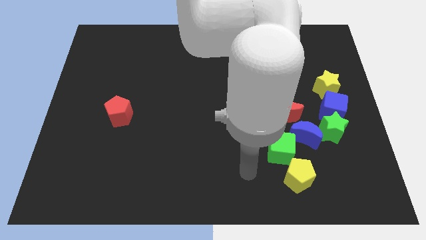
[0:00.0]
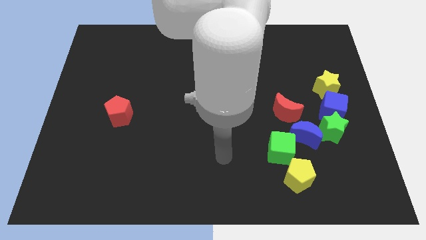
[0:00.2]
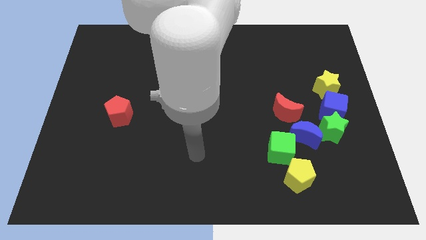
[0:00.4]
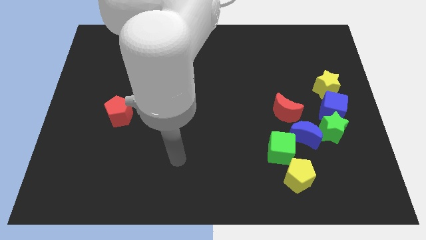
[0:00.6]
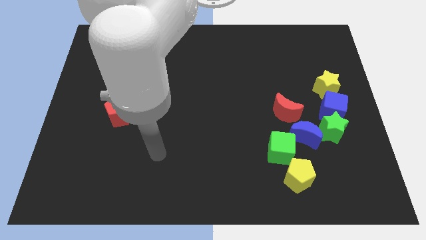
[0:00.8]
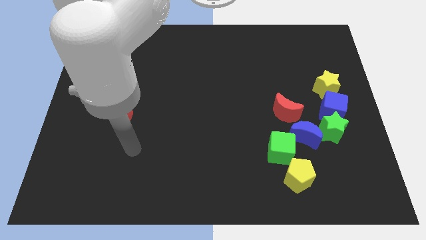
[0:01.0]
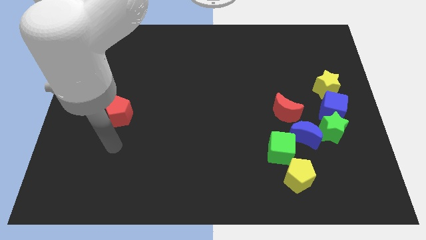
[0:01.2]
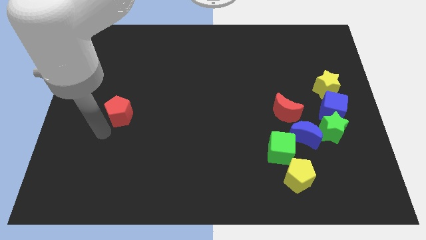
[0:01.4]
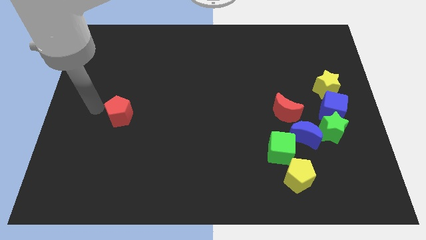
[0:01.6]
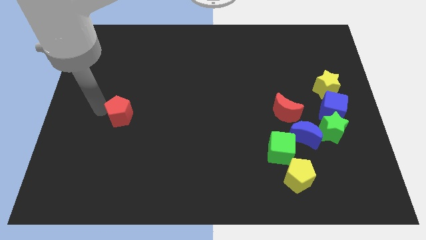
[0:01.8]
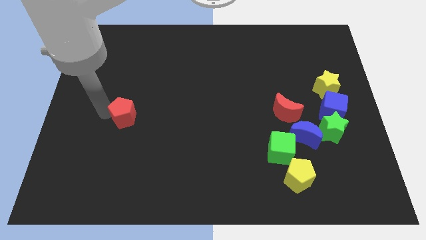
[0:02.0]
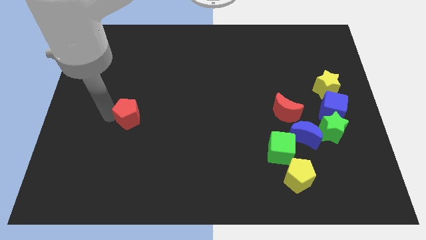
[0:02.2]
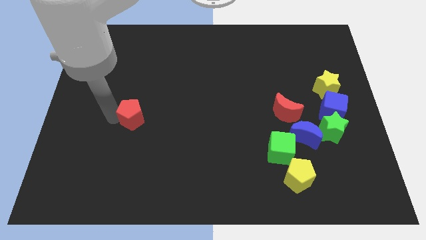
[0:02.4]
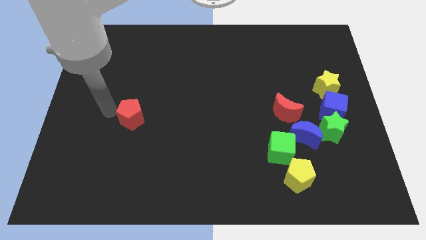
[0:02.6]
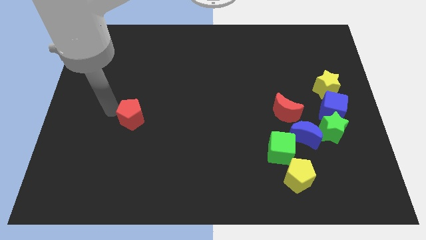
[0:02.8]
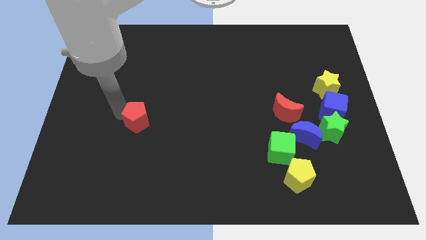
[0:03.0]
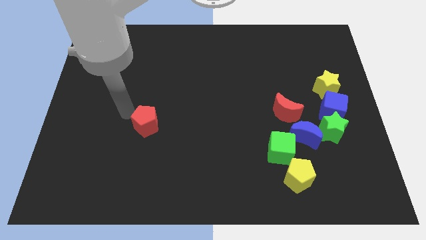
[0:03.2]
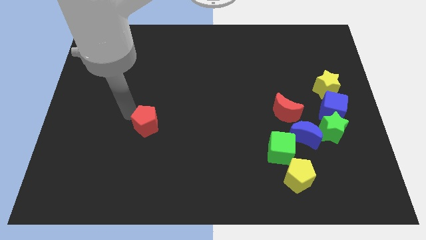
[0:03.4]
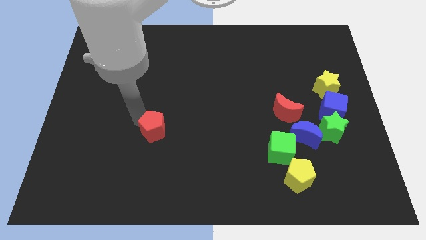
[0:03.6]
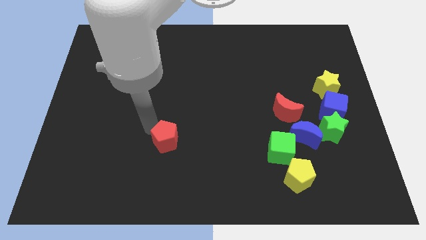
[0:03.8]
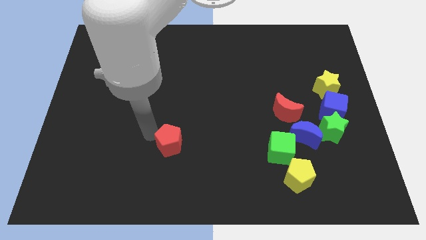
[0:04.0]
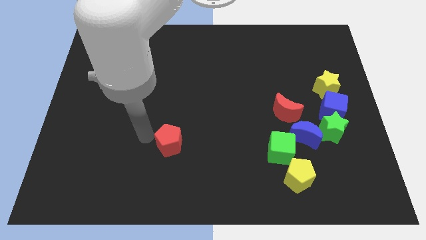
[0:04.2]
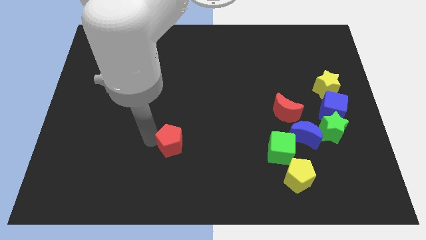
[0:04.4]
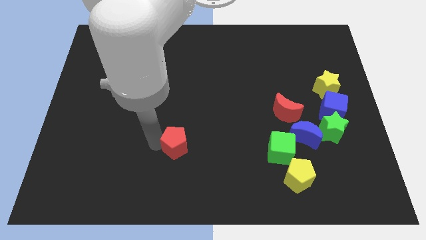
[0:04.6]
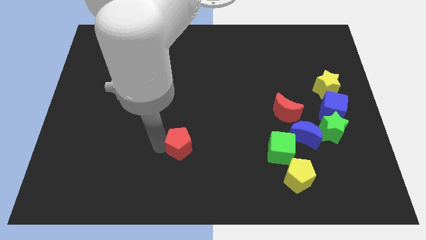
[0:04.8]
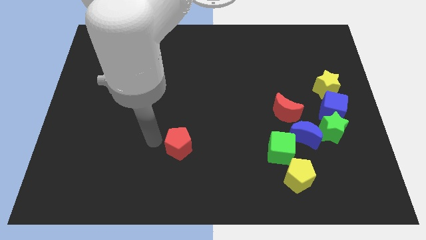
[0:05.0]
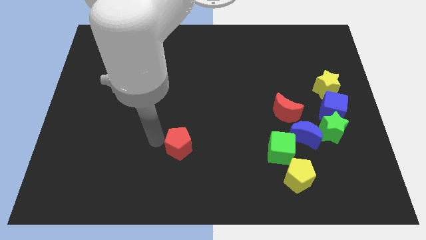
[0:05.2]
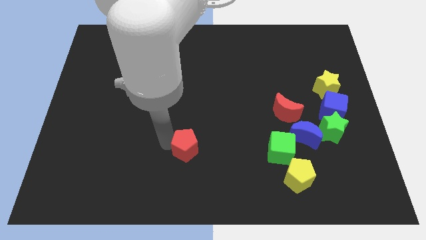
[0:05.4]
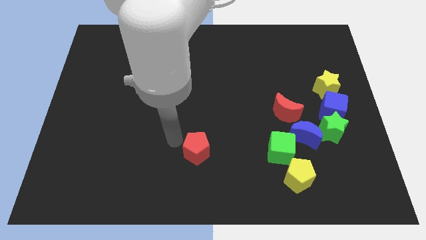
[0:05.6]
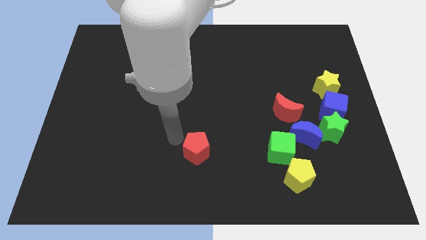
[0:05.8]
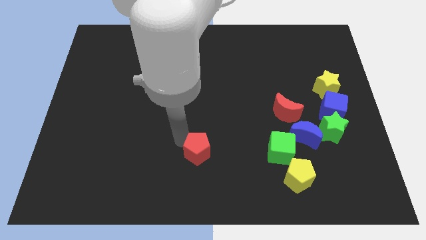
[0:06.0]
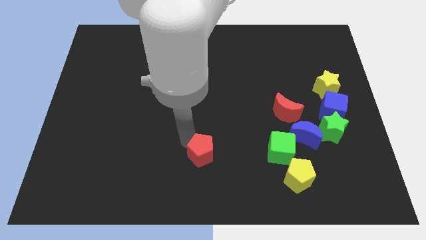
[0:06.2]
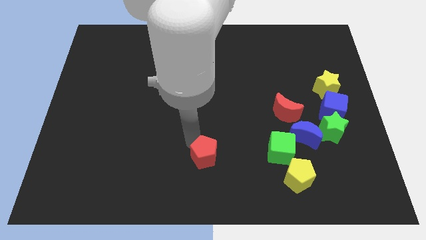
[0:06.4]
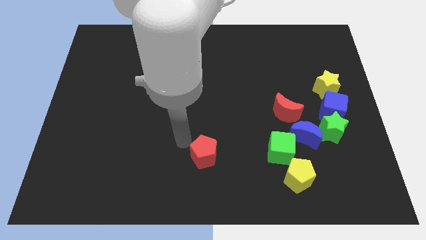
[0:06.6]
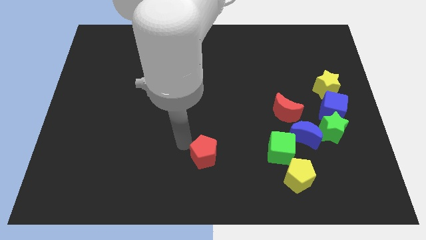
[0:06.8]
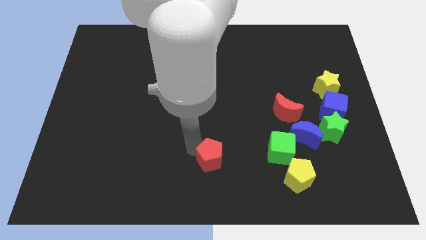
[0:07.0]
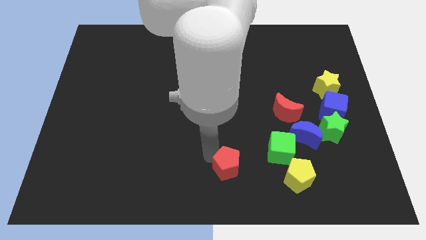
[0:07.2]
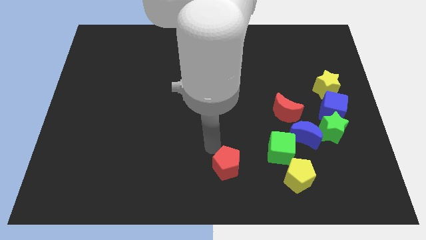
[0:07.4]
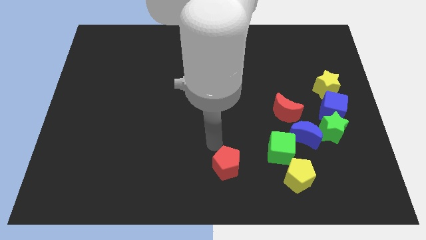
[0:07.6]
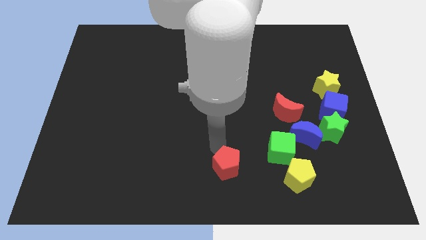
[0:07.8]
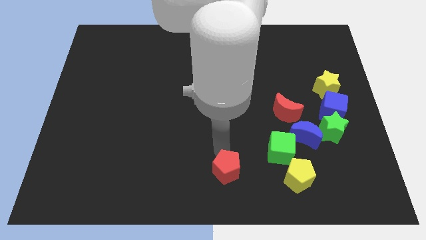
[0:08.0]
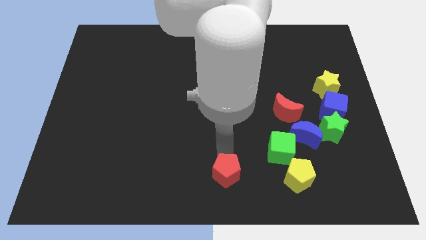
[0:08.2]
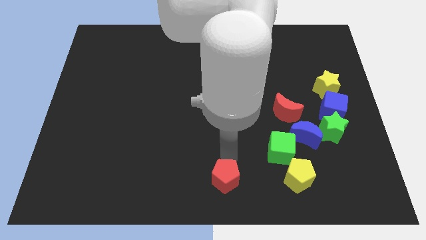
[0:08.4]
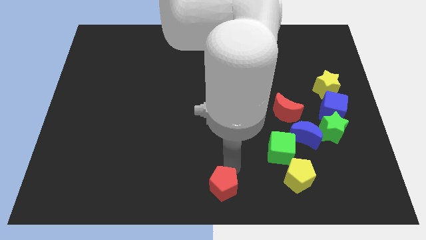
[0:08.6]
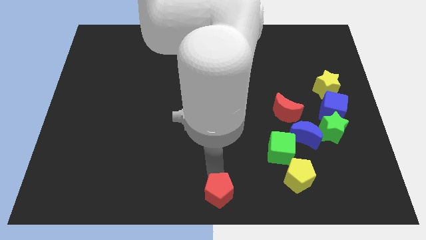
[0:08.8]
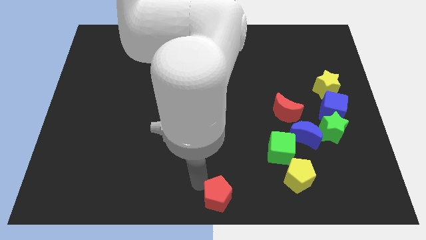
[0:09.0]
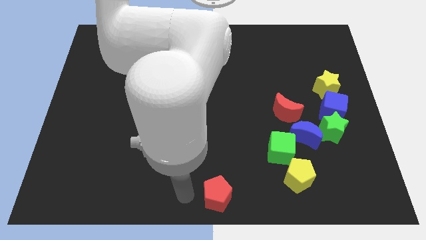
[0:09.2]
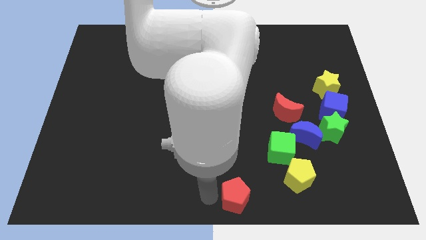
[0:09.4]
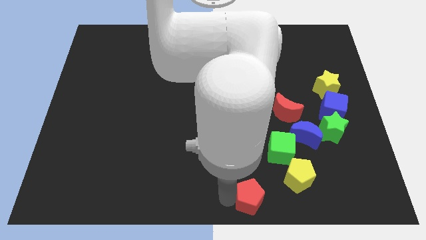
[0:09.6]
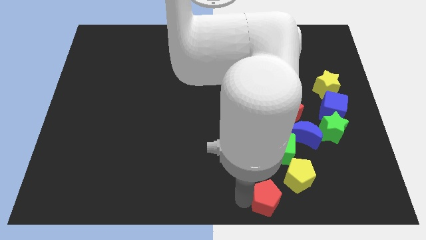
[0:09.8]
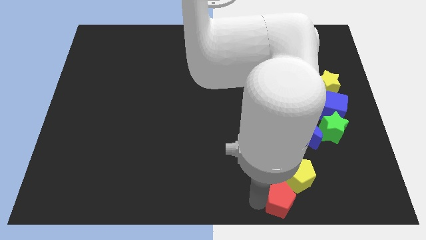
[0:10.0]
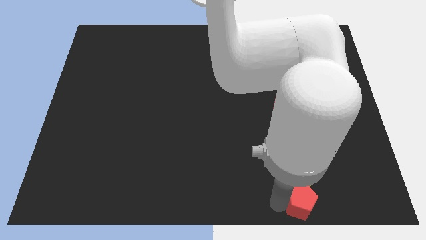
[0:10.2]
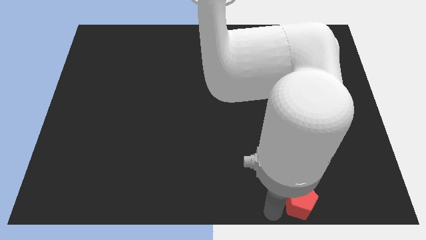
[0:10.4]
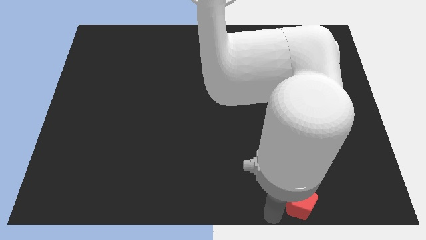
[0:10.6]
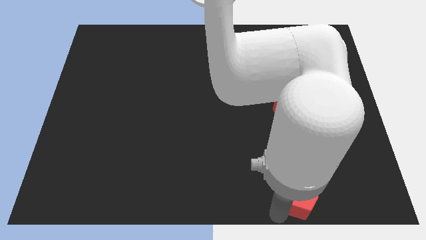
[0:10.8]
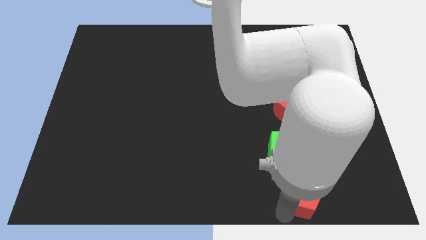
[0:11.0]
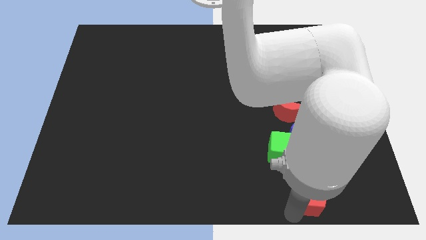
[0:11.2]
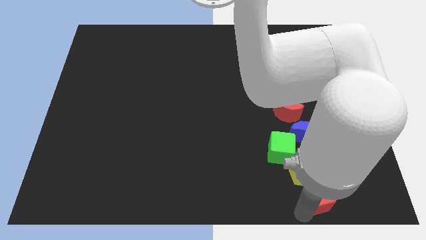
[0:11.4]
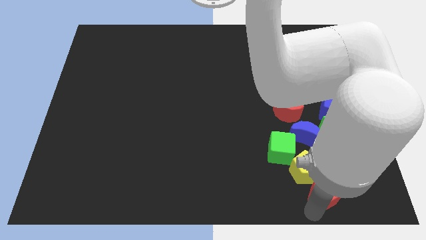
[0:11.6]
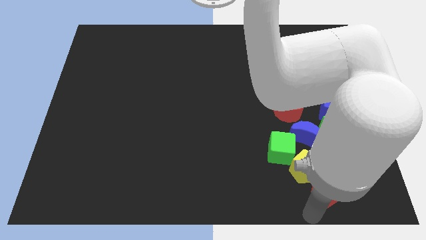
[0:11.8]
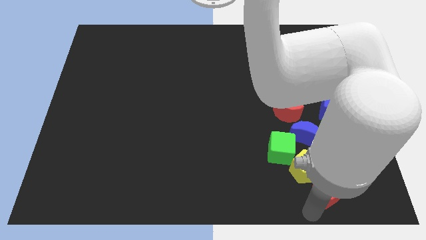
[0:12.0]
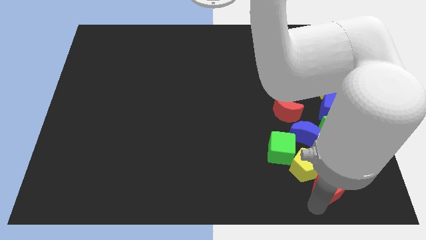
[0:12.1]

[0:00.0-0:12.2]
slide the red pentagon to the bottom side of the green star

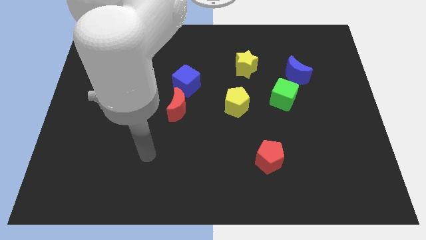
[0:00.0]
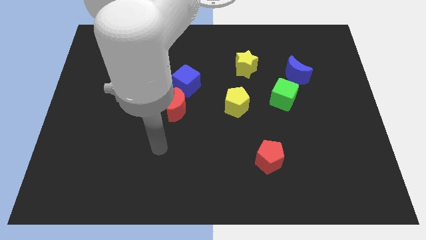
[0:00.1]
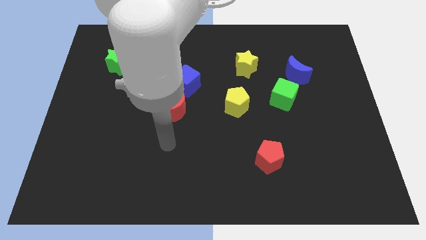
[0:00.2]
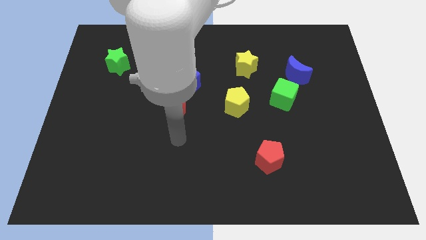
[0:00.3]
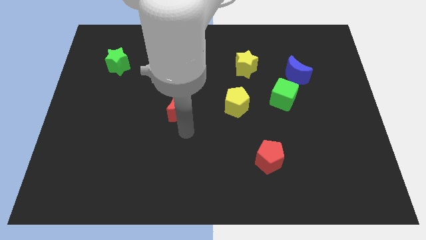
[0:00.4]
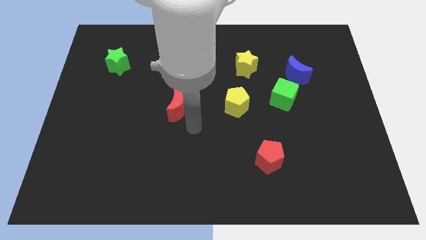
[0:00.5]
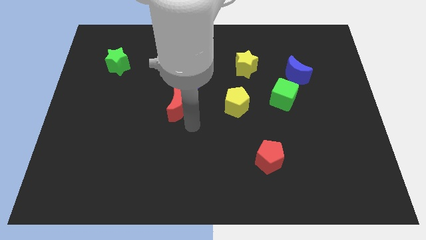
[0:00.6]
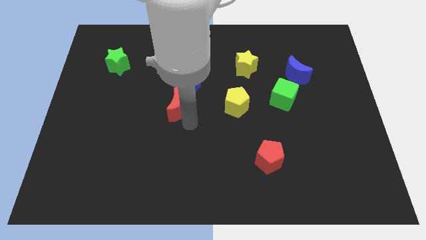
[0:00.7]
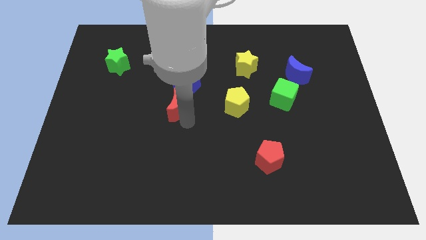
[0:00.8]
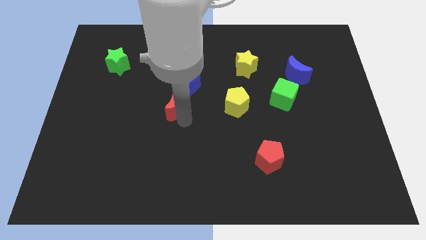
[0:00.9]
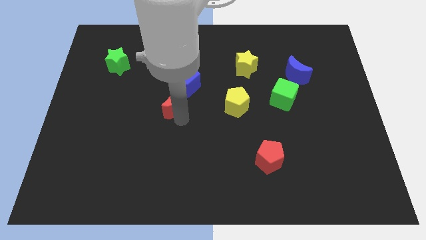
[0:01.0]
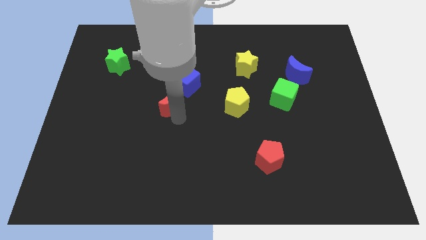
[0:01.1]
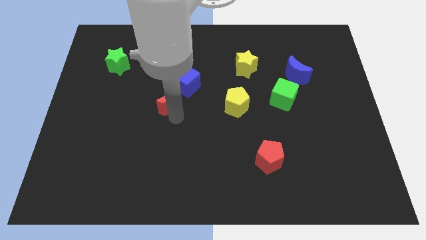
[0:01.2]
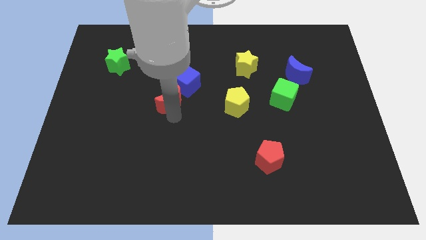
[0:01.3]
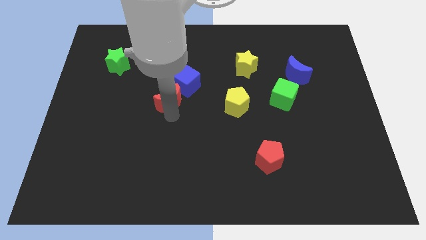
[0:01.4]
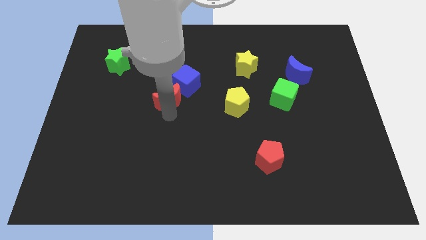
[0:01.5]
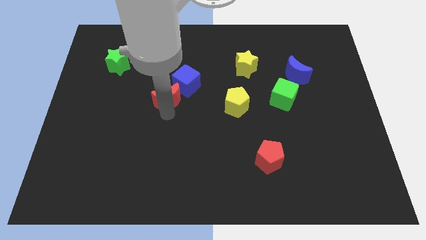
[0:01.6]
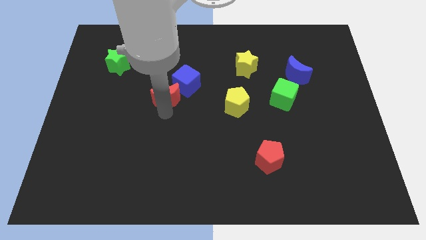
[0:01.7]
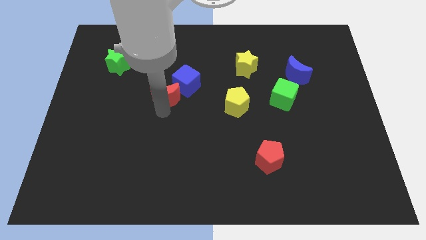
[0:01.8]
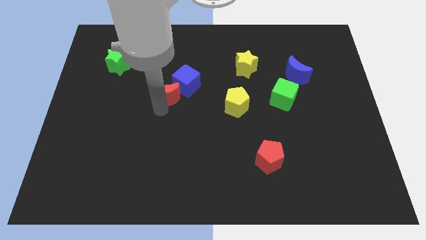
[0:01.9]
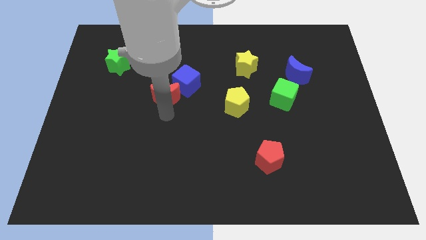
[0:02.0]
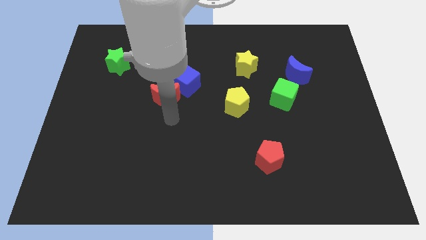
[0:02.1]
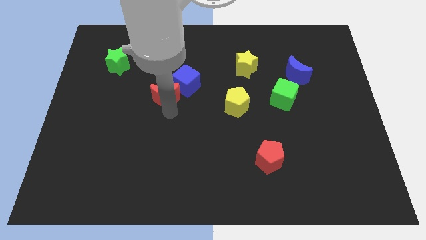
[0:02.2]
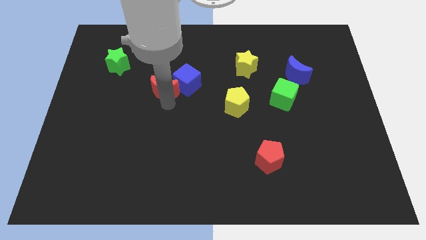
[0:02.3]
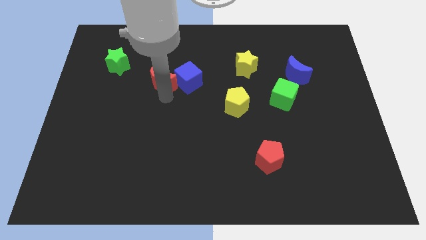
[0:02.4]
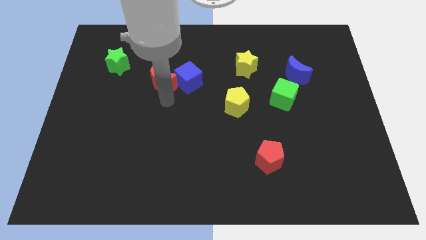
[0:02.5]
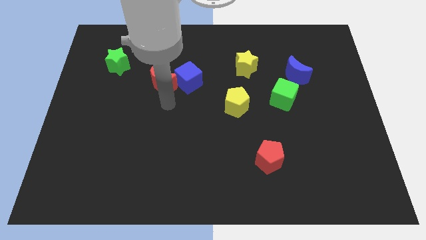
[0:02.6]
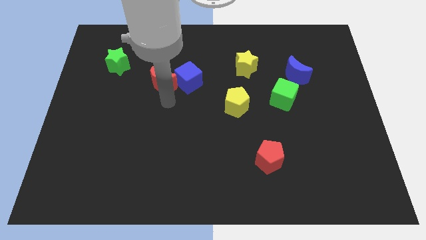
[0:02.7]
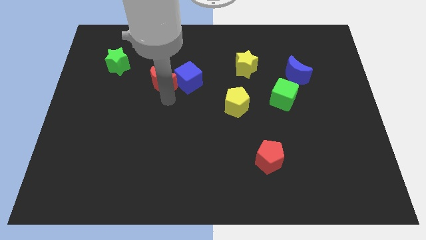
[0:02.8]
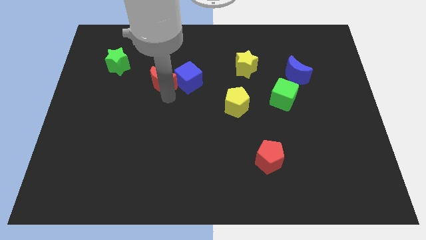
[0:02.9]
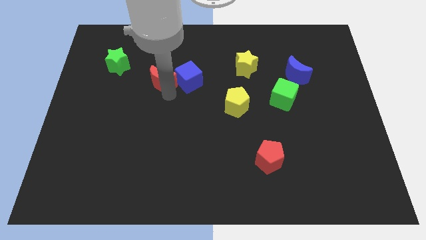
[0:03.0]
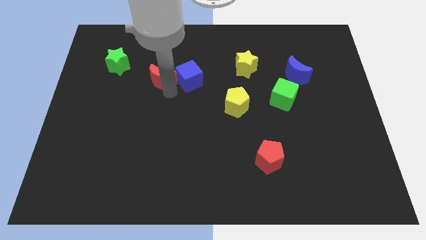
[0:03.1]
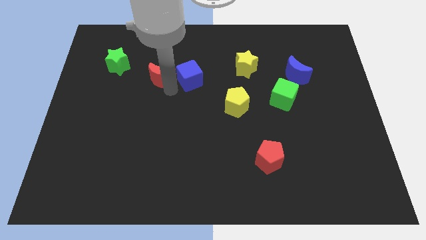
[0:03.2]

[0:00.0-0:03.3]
push the red moon to the right side of the green star
